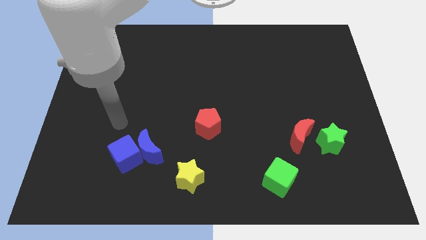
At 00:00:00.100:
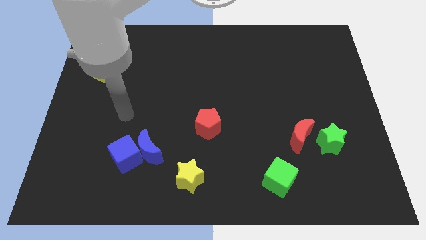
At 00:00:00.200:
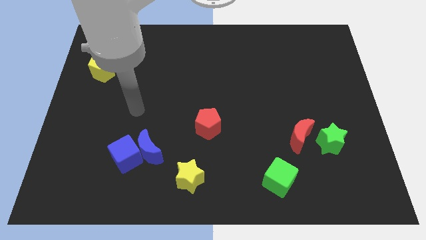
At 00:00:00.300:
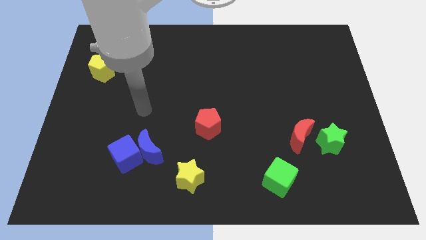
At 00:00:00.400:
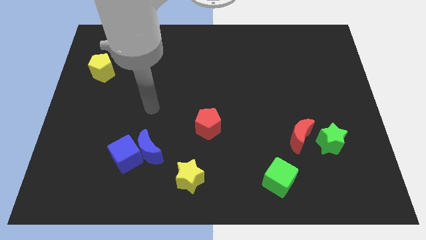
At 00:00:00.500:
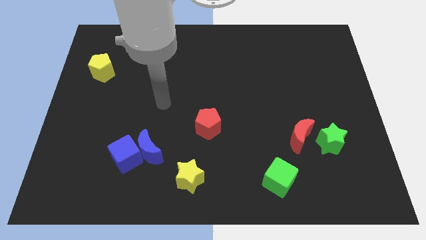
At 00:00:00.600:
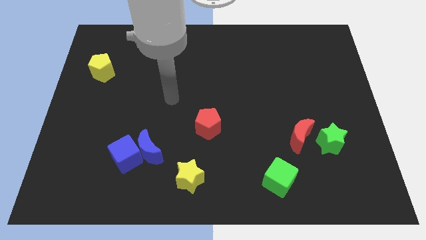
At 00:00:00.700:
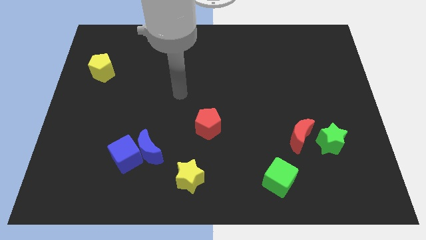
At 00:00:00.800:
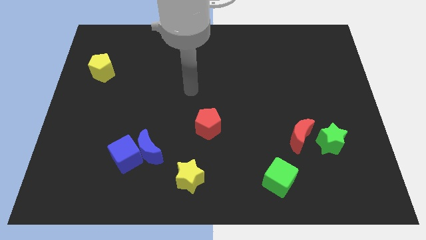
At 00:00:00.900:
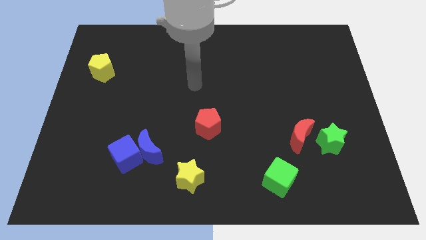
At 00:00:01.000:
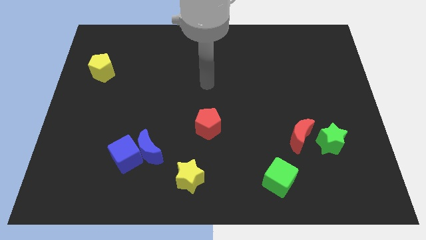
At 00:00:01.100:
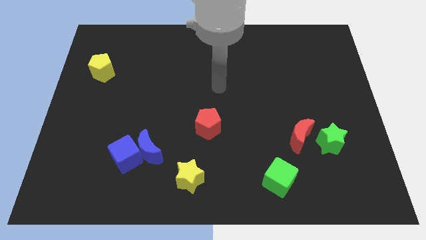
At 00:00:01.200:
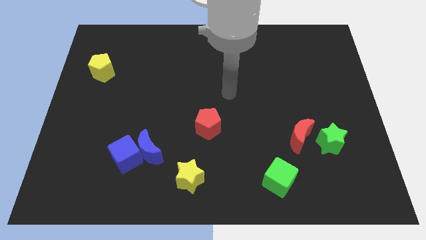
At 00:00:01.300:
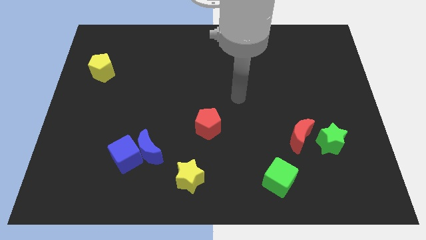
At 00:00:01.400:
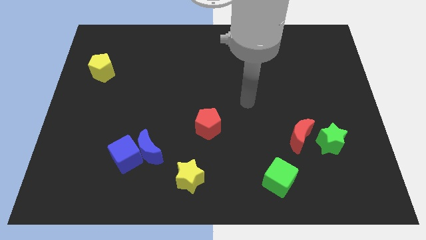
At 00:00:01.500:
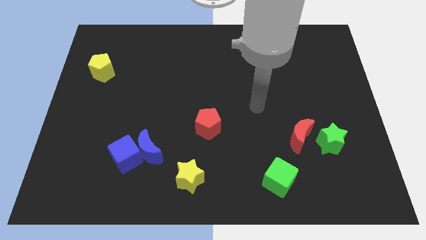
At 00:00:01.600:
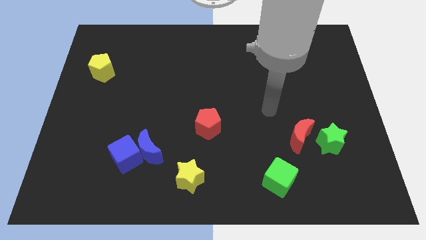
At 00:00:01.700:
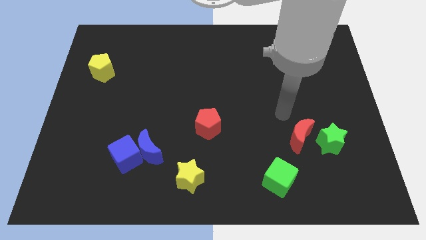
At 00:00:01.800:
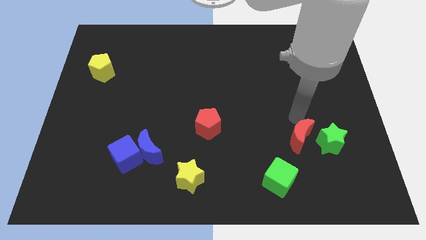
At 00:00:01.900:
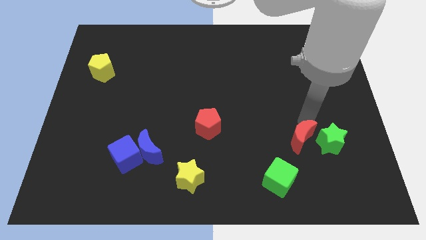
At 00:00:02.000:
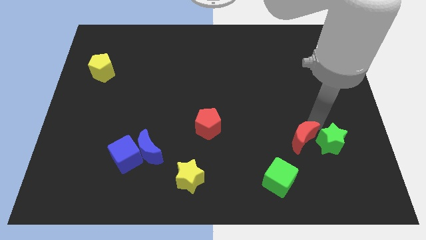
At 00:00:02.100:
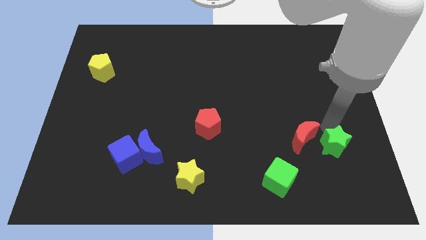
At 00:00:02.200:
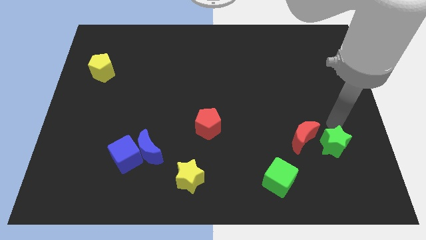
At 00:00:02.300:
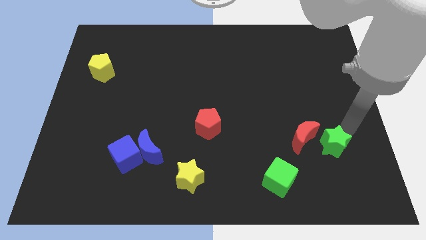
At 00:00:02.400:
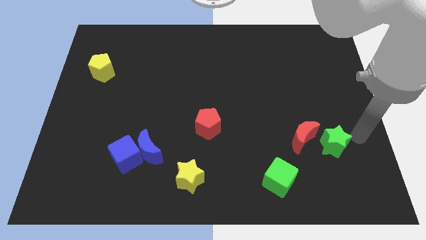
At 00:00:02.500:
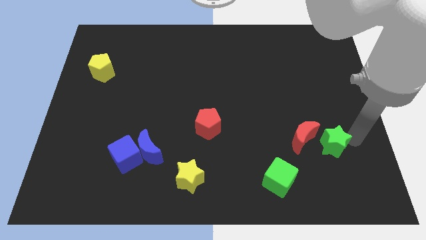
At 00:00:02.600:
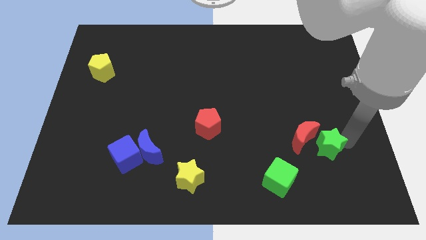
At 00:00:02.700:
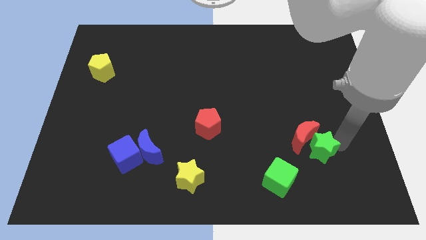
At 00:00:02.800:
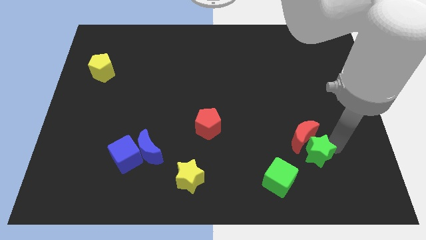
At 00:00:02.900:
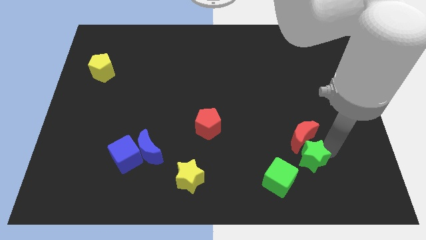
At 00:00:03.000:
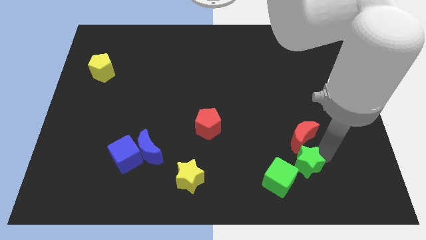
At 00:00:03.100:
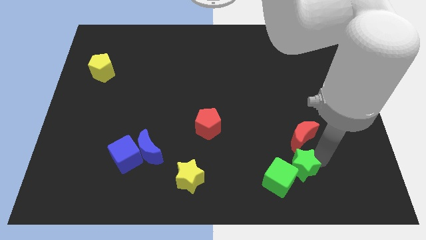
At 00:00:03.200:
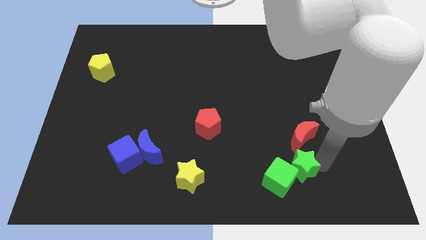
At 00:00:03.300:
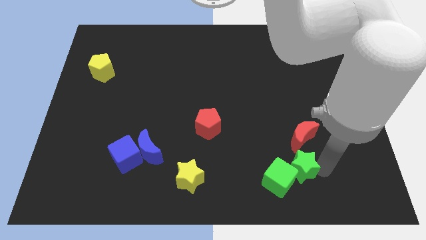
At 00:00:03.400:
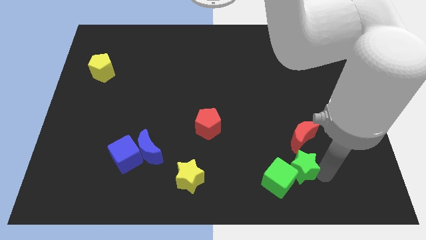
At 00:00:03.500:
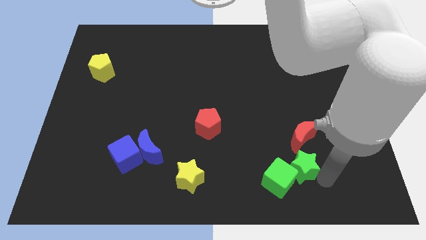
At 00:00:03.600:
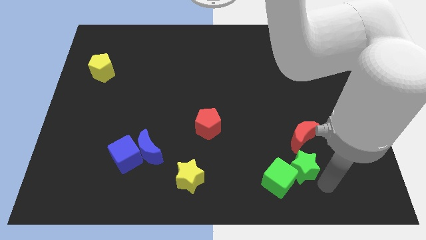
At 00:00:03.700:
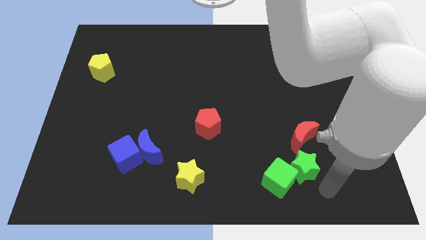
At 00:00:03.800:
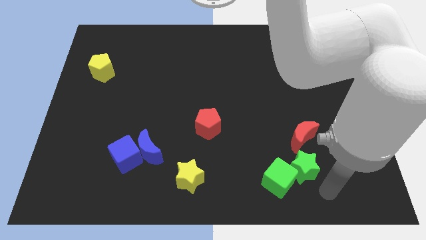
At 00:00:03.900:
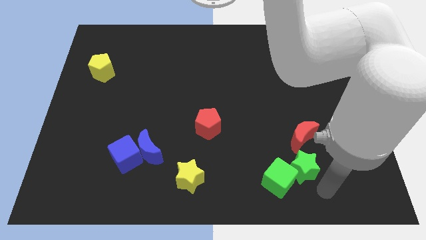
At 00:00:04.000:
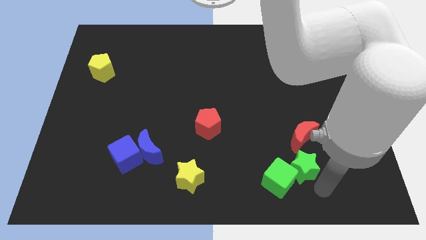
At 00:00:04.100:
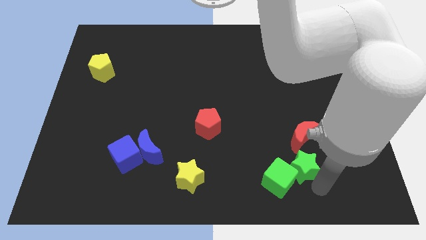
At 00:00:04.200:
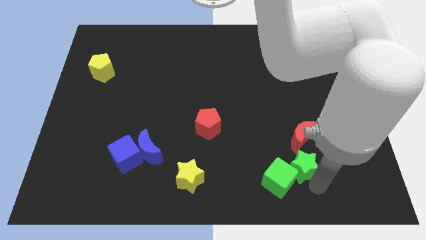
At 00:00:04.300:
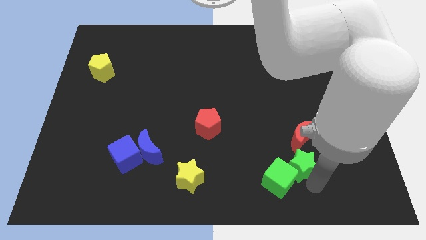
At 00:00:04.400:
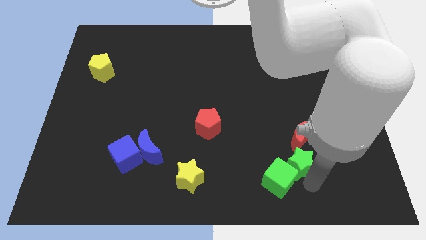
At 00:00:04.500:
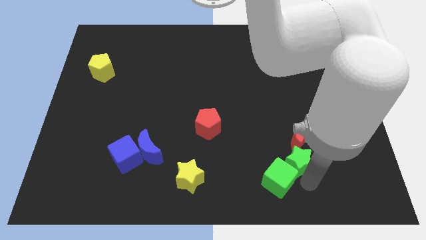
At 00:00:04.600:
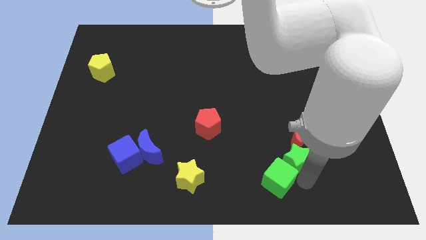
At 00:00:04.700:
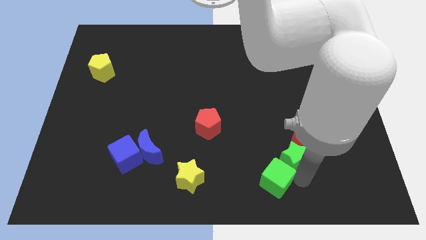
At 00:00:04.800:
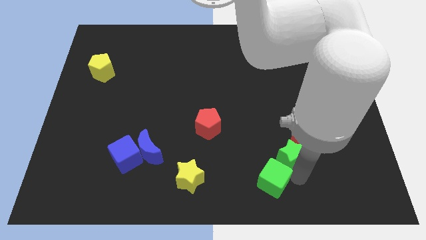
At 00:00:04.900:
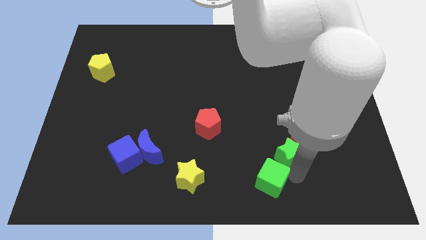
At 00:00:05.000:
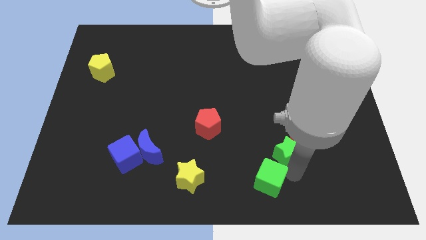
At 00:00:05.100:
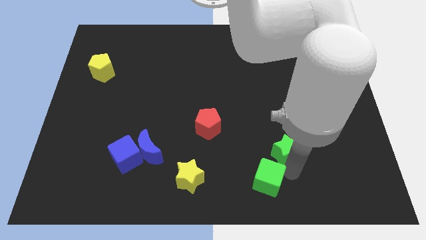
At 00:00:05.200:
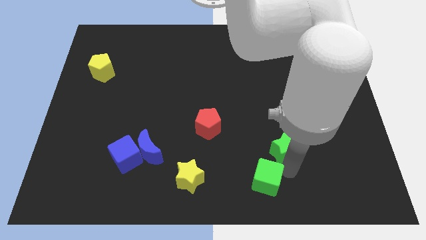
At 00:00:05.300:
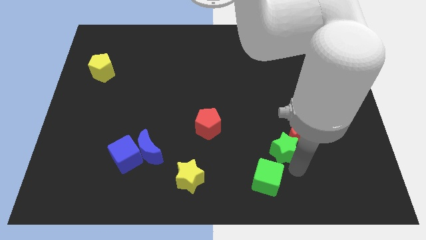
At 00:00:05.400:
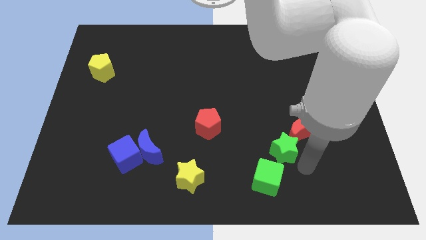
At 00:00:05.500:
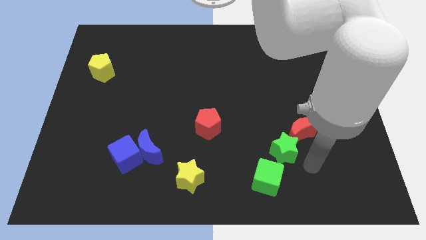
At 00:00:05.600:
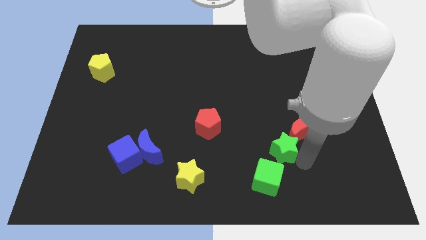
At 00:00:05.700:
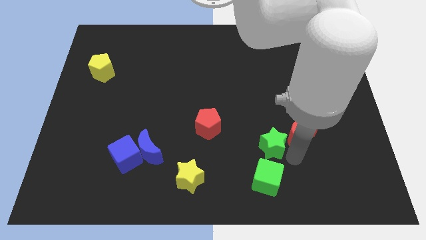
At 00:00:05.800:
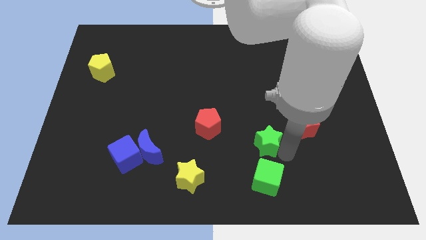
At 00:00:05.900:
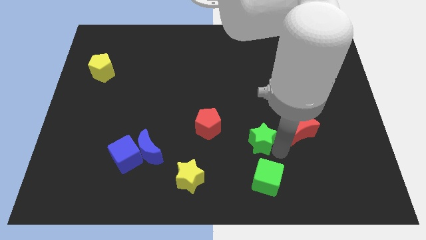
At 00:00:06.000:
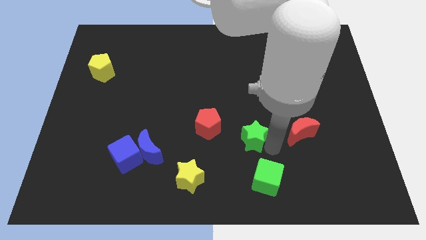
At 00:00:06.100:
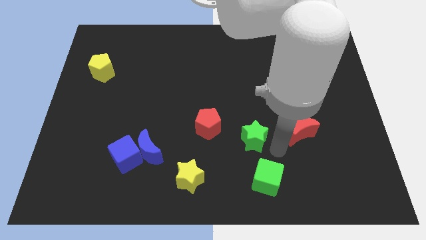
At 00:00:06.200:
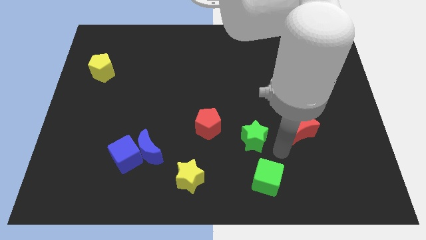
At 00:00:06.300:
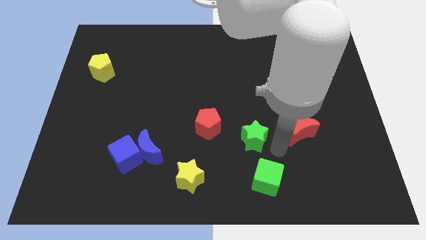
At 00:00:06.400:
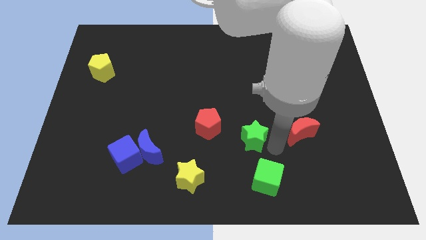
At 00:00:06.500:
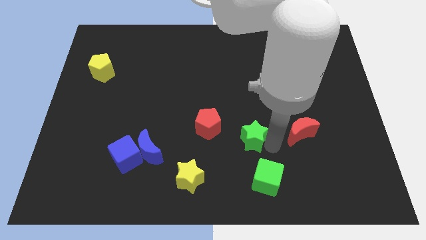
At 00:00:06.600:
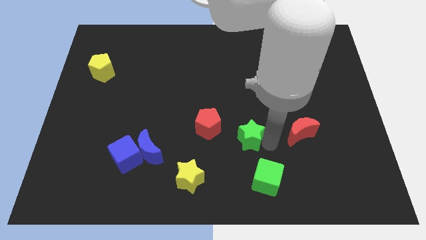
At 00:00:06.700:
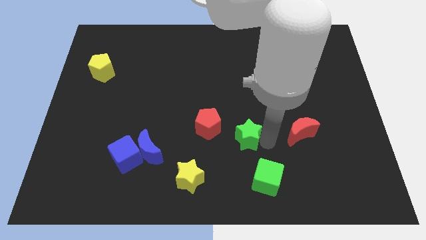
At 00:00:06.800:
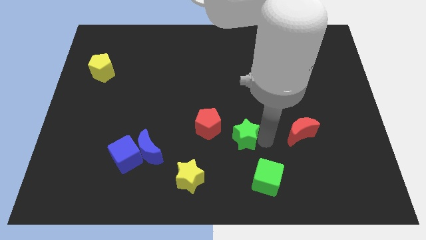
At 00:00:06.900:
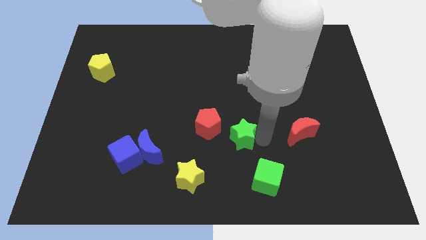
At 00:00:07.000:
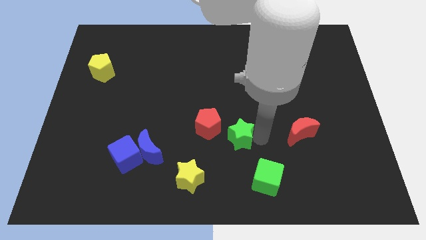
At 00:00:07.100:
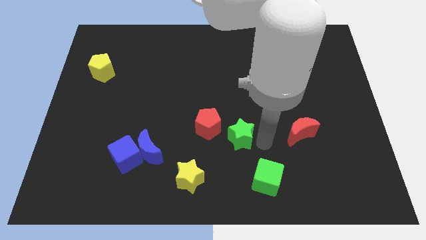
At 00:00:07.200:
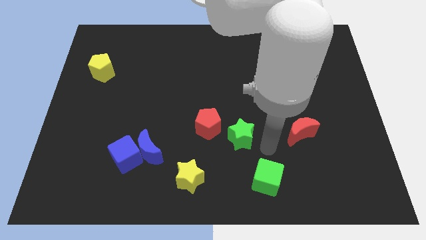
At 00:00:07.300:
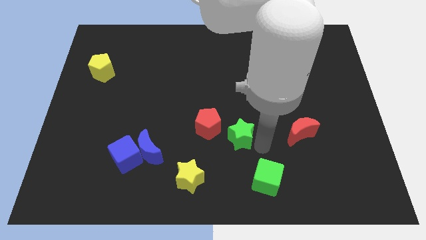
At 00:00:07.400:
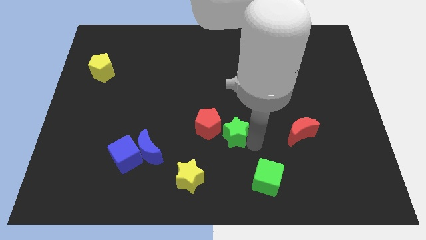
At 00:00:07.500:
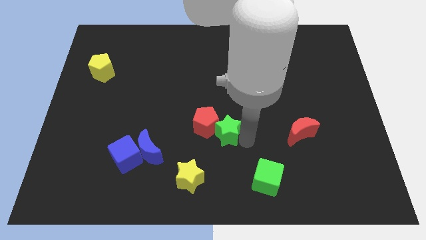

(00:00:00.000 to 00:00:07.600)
push the green star close to the red pentagon
